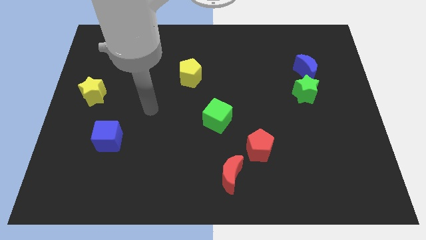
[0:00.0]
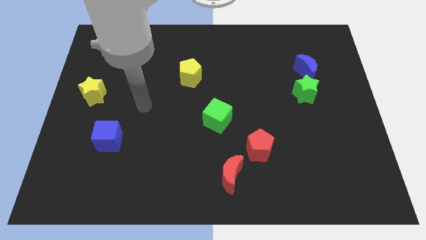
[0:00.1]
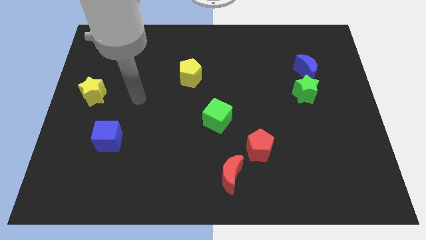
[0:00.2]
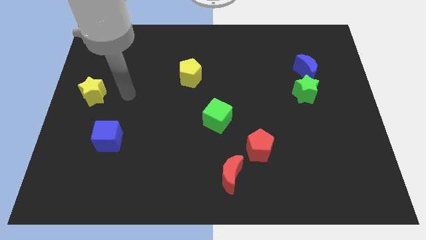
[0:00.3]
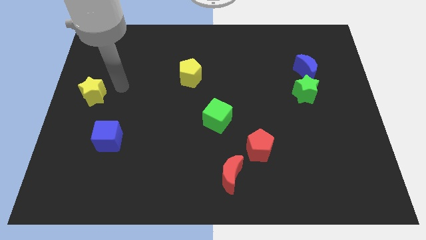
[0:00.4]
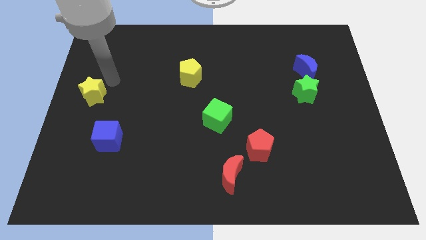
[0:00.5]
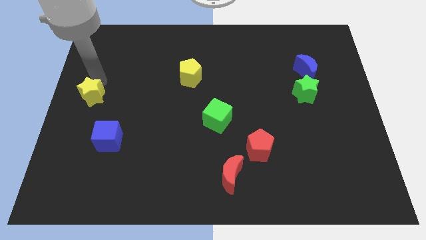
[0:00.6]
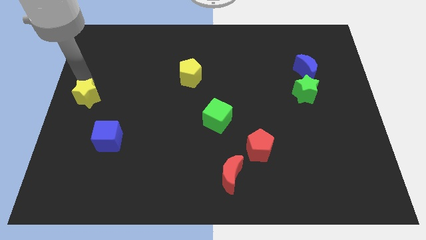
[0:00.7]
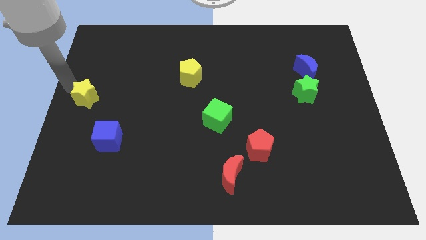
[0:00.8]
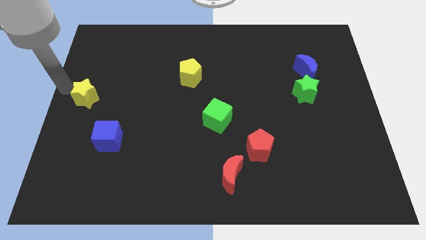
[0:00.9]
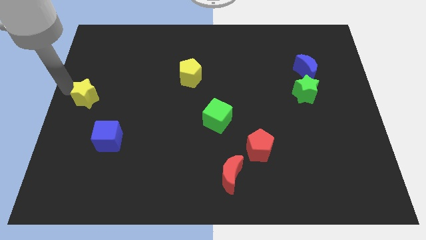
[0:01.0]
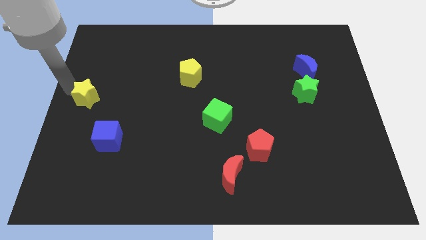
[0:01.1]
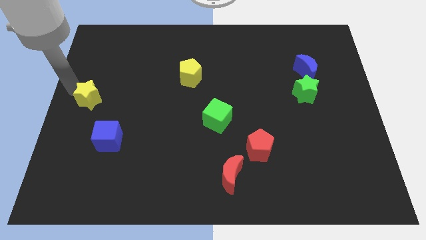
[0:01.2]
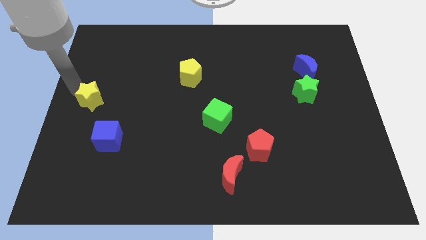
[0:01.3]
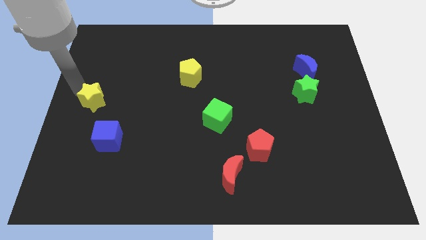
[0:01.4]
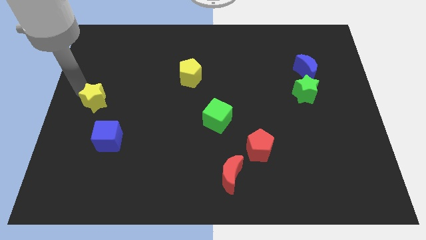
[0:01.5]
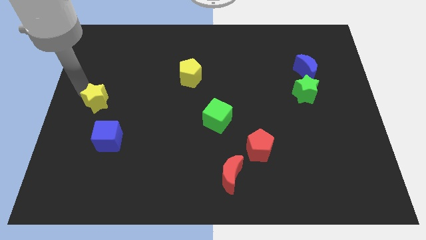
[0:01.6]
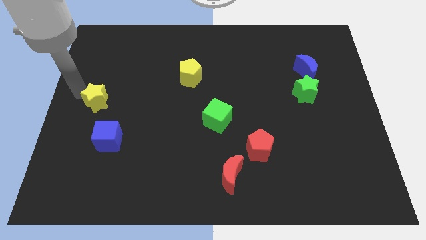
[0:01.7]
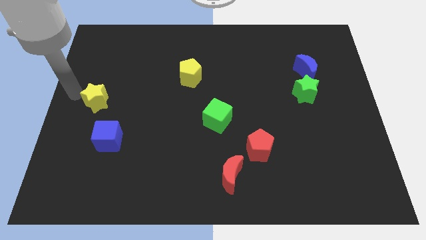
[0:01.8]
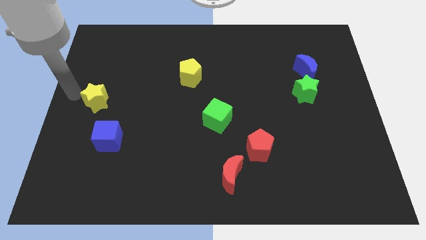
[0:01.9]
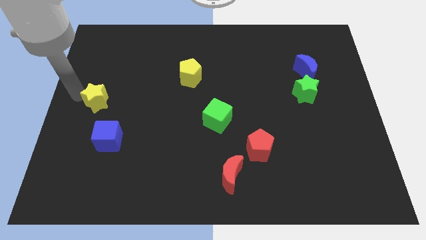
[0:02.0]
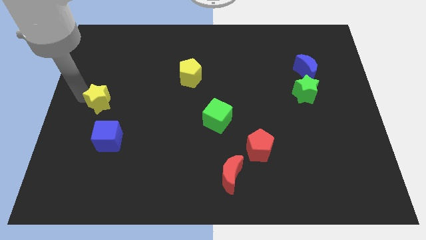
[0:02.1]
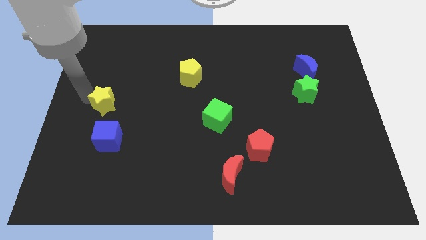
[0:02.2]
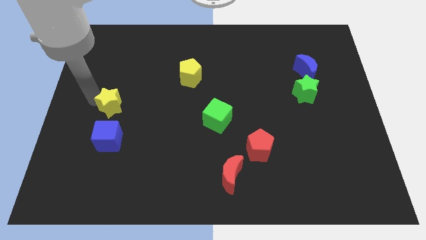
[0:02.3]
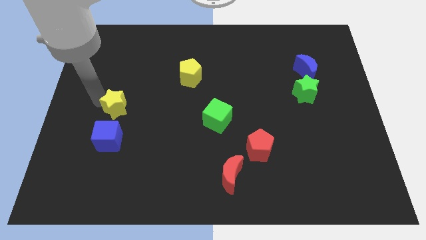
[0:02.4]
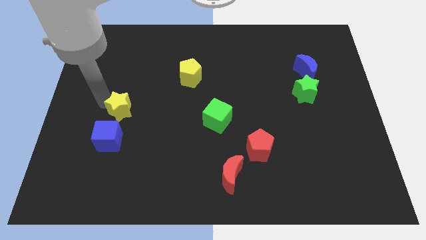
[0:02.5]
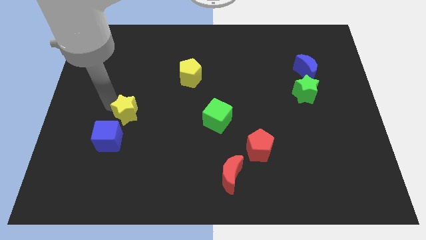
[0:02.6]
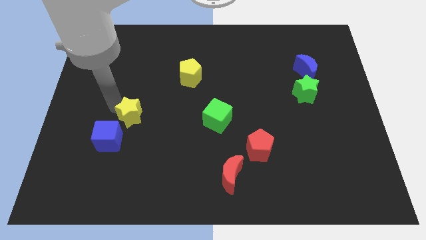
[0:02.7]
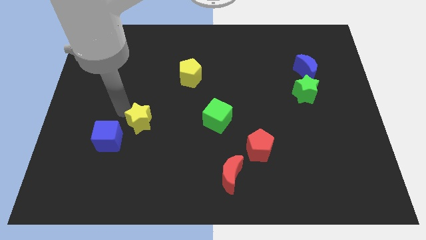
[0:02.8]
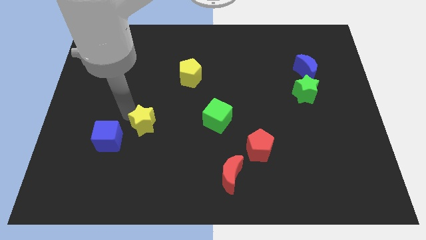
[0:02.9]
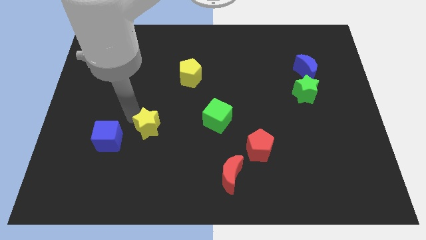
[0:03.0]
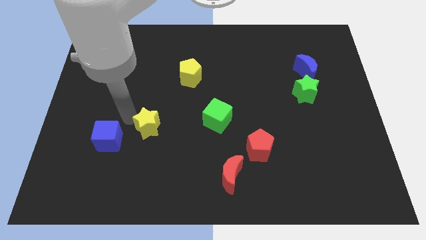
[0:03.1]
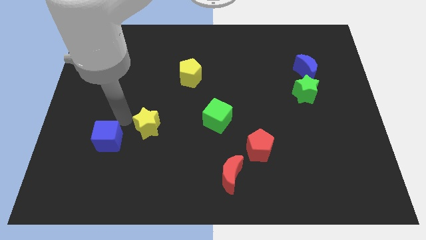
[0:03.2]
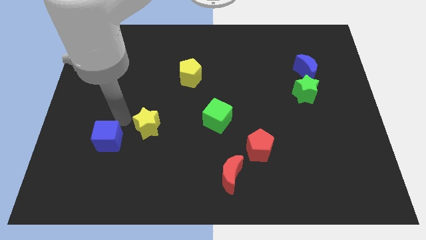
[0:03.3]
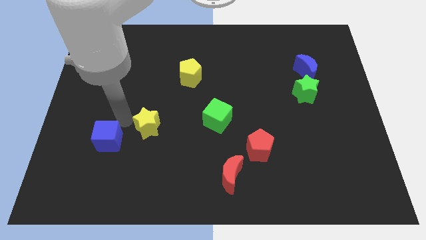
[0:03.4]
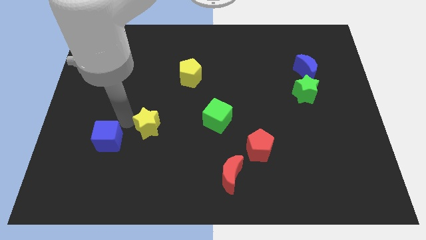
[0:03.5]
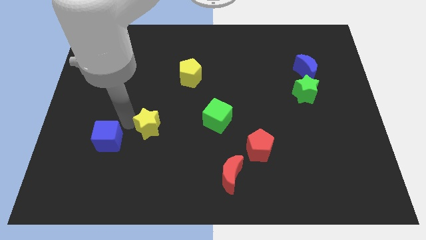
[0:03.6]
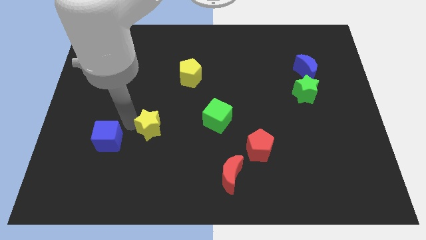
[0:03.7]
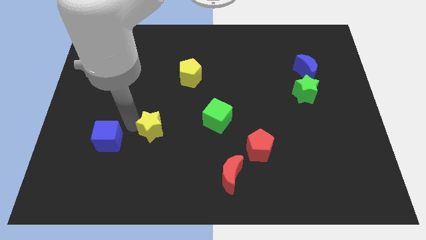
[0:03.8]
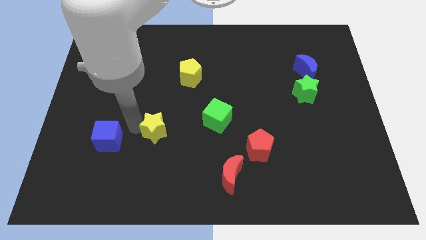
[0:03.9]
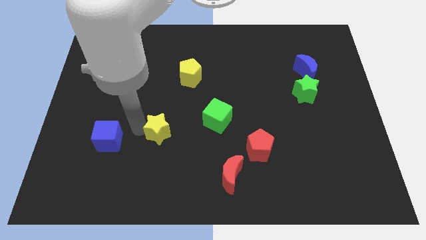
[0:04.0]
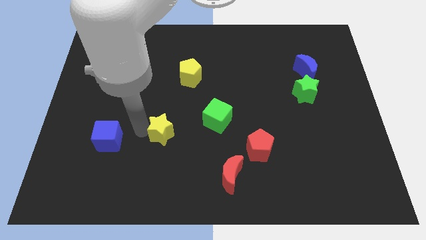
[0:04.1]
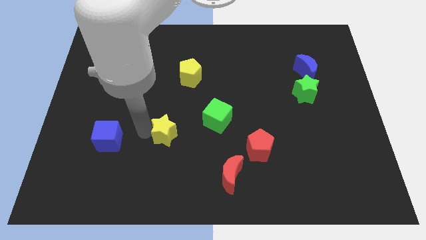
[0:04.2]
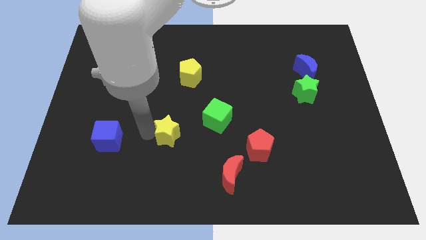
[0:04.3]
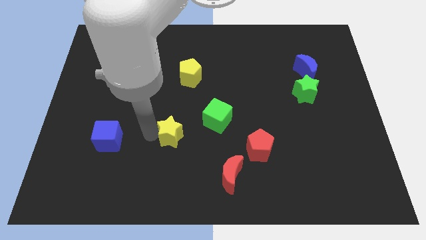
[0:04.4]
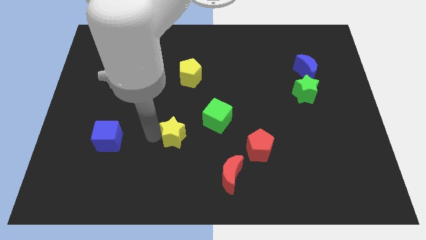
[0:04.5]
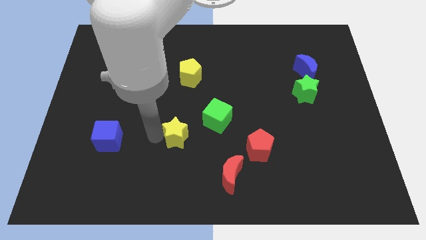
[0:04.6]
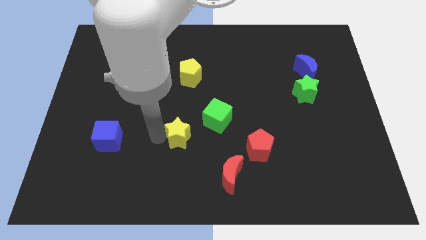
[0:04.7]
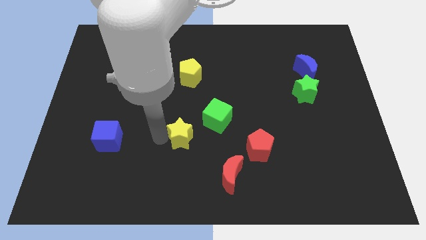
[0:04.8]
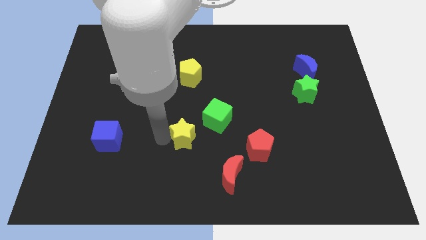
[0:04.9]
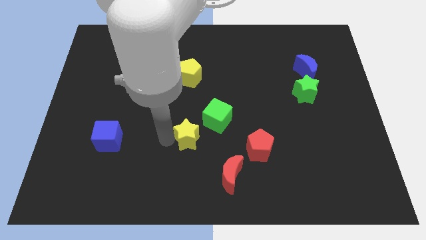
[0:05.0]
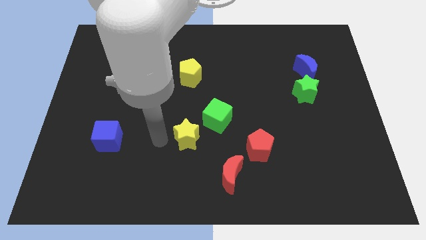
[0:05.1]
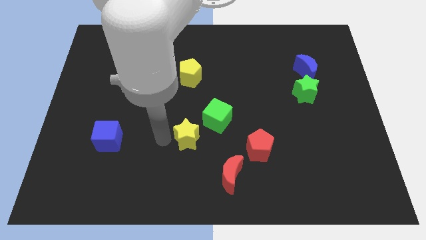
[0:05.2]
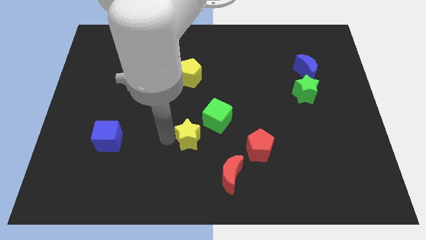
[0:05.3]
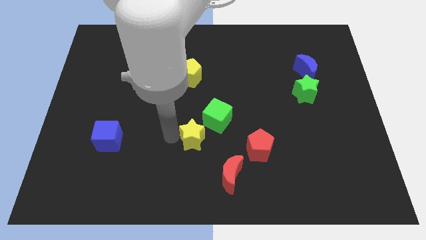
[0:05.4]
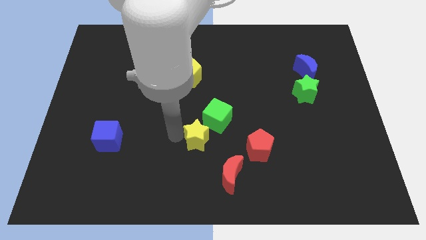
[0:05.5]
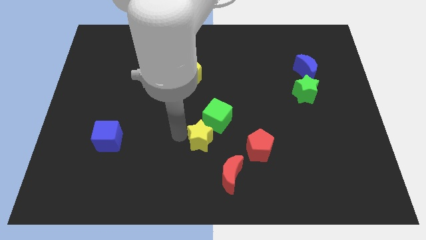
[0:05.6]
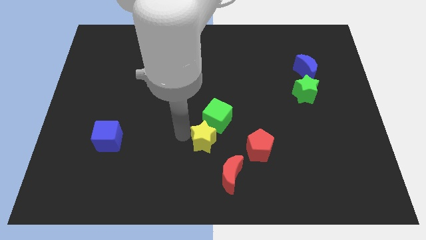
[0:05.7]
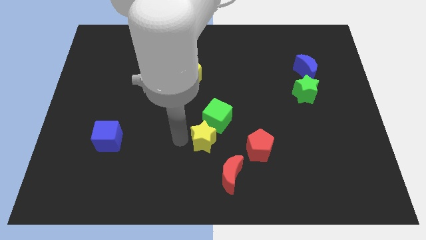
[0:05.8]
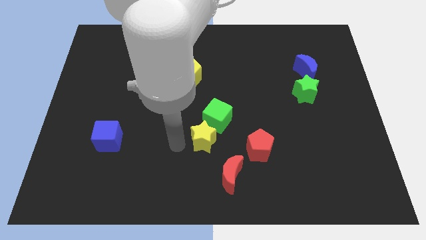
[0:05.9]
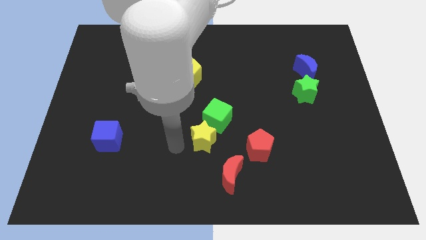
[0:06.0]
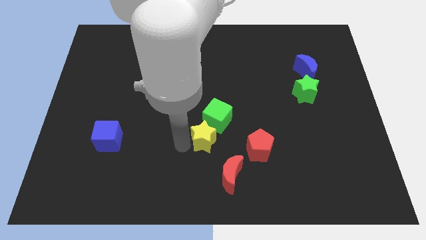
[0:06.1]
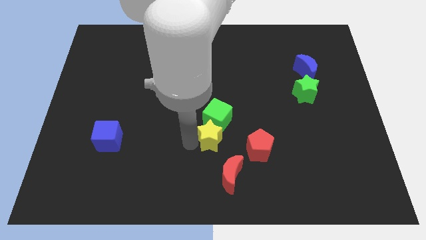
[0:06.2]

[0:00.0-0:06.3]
slide the yellow star to the top side of the red moon

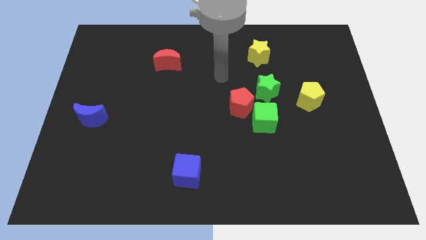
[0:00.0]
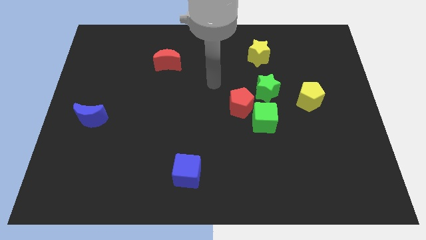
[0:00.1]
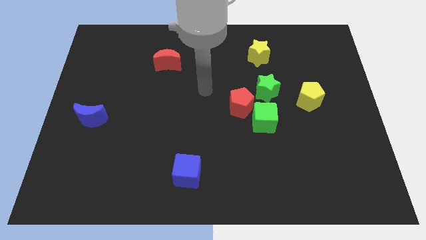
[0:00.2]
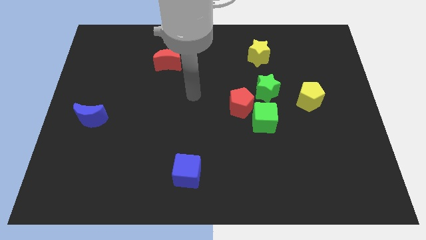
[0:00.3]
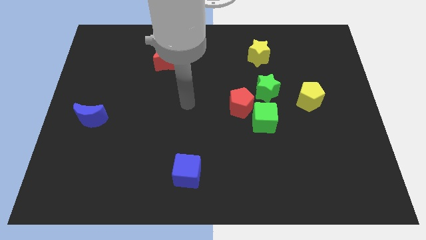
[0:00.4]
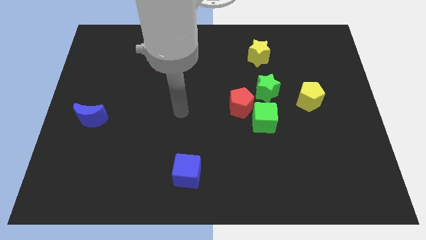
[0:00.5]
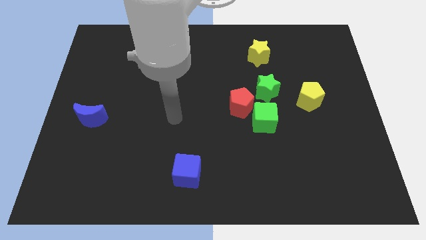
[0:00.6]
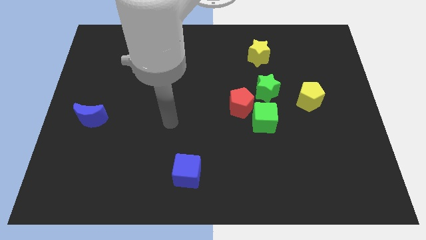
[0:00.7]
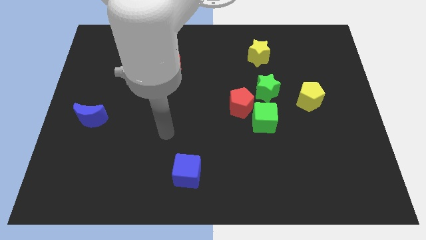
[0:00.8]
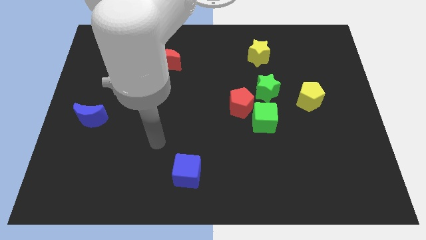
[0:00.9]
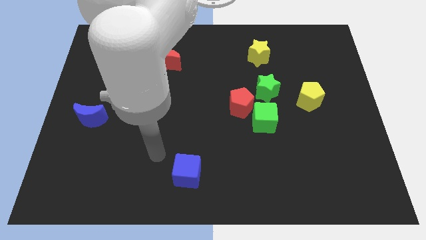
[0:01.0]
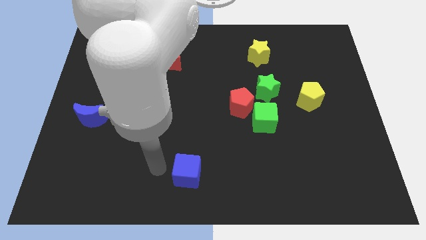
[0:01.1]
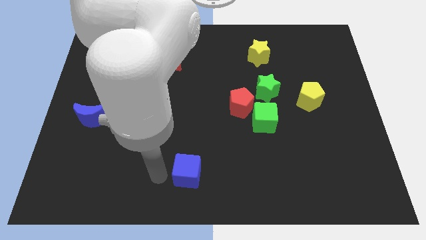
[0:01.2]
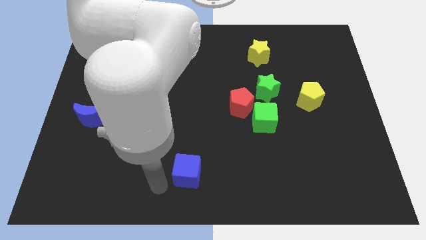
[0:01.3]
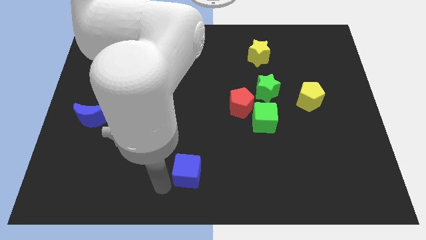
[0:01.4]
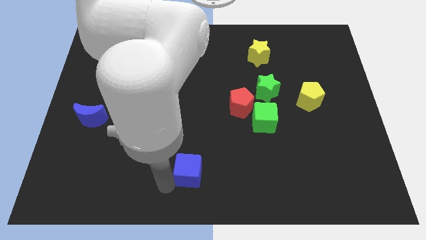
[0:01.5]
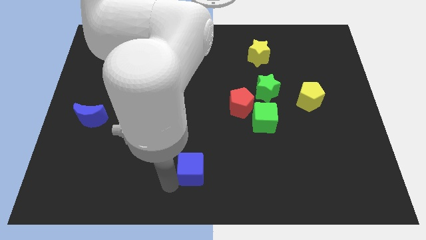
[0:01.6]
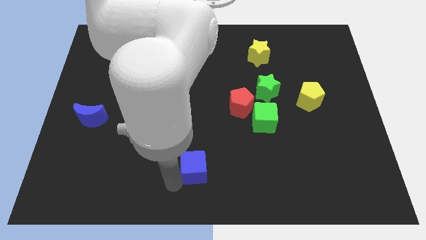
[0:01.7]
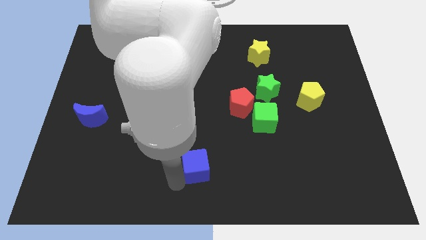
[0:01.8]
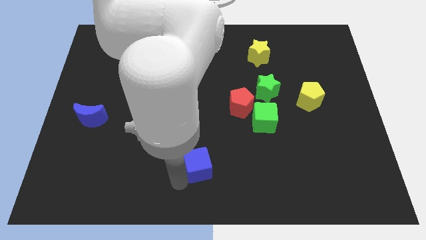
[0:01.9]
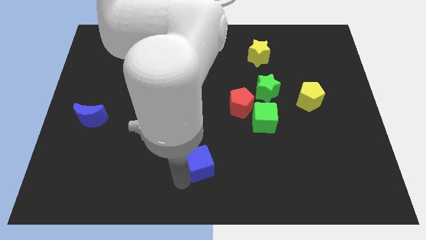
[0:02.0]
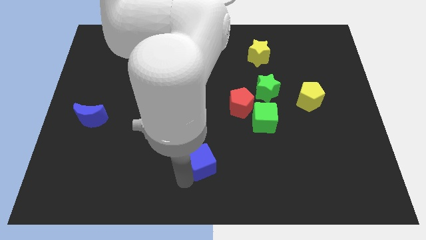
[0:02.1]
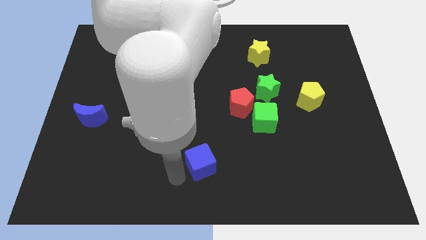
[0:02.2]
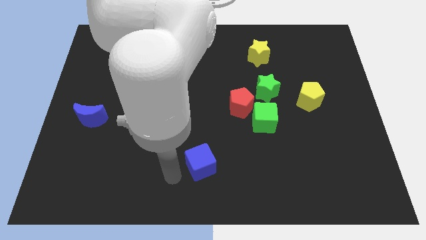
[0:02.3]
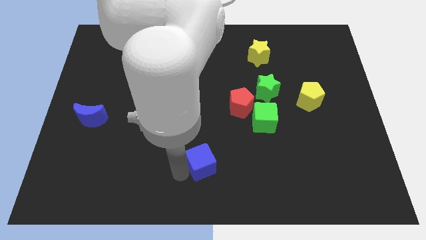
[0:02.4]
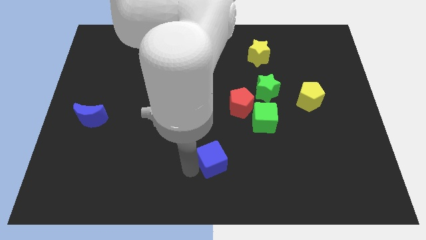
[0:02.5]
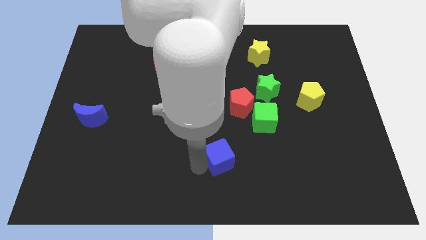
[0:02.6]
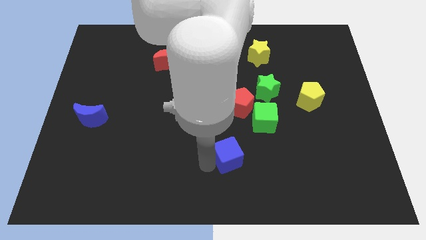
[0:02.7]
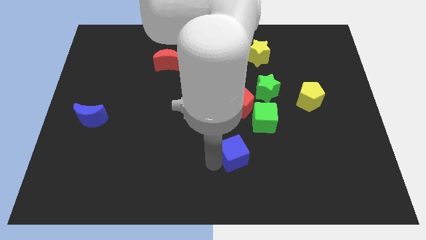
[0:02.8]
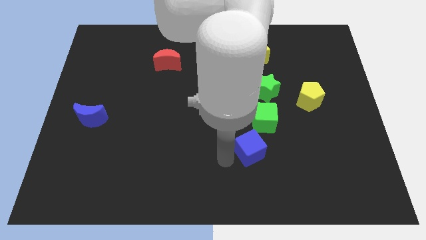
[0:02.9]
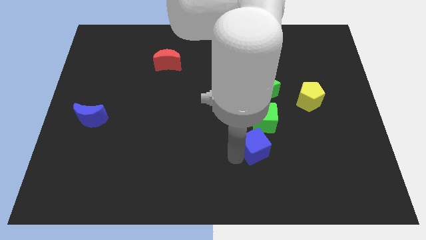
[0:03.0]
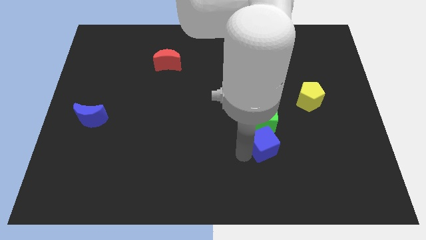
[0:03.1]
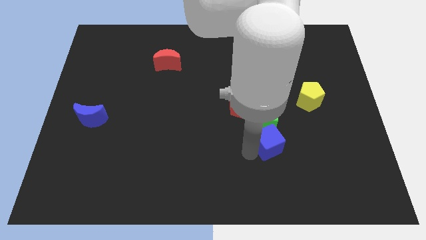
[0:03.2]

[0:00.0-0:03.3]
push the blue cube to the bottom right side of the red pentagon
